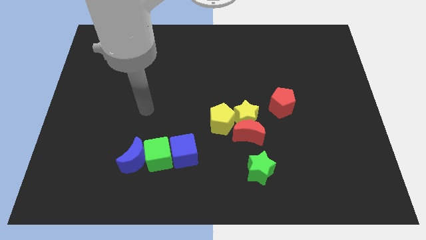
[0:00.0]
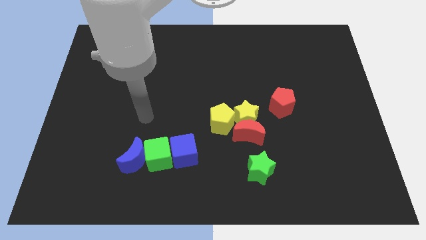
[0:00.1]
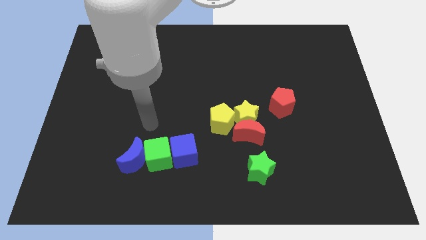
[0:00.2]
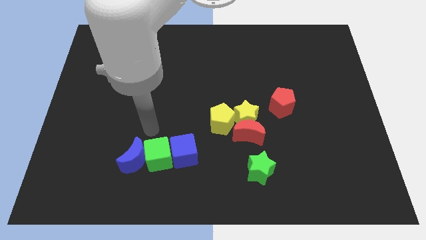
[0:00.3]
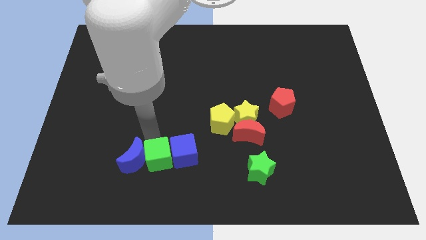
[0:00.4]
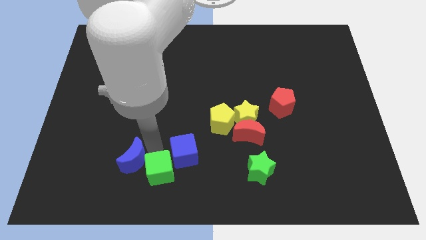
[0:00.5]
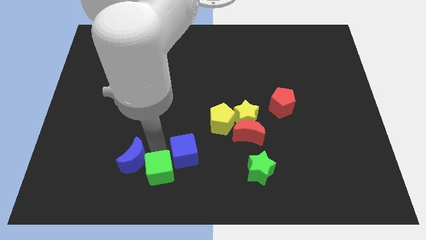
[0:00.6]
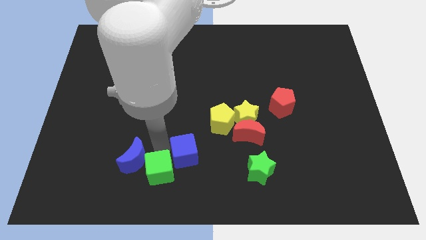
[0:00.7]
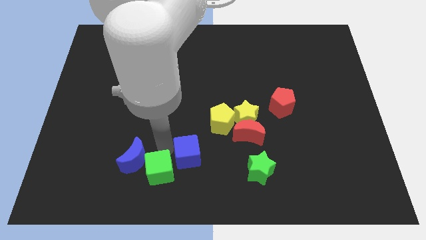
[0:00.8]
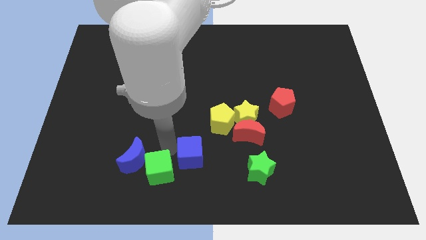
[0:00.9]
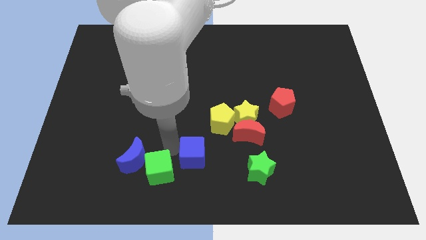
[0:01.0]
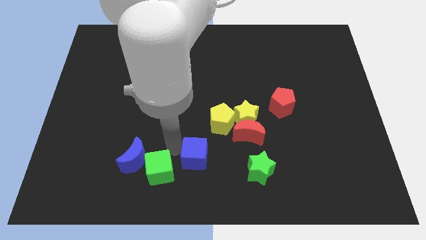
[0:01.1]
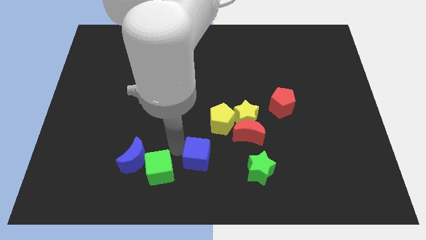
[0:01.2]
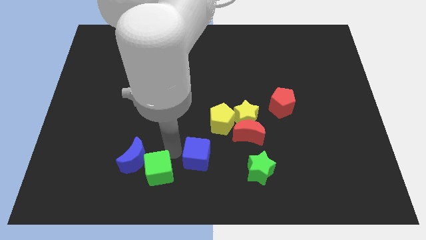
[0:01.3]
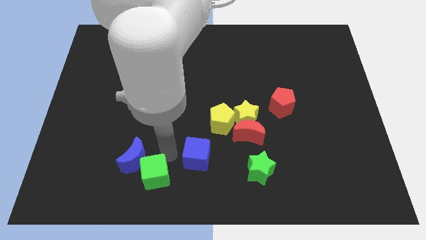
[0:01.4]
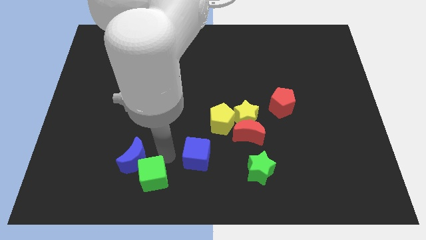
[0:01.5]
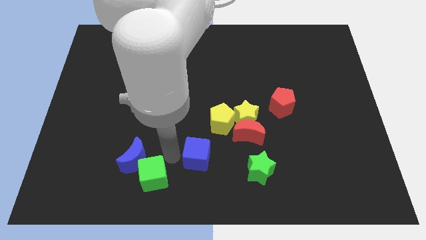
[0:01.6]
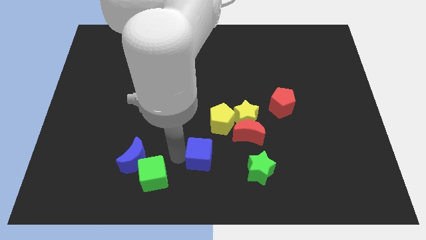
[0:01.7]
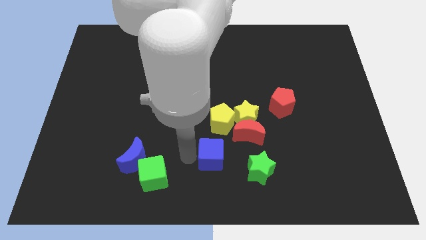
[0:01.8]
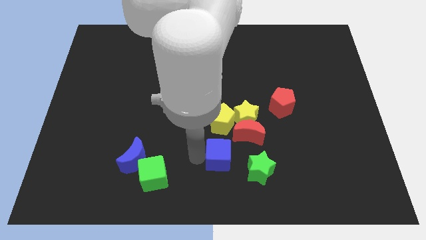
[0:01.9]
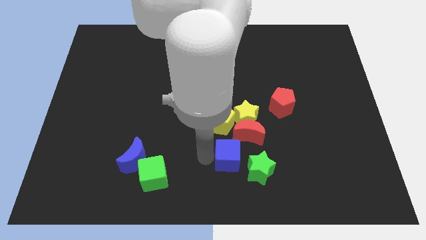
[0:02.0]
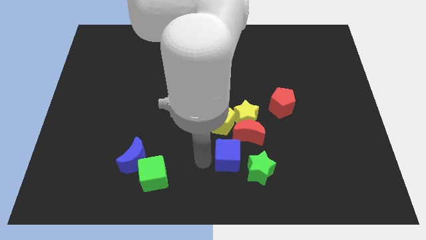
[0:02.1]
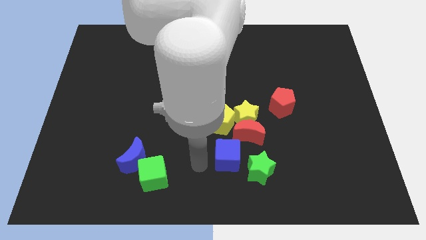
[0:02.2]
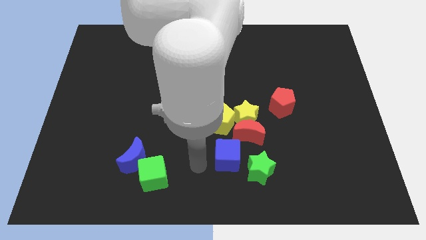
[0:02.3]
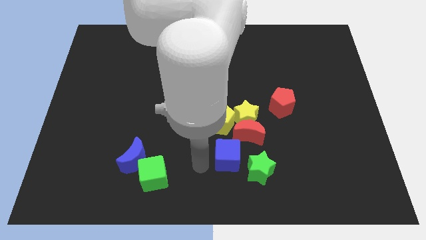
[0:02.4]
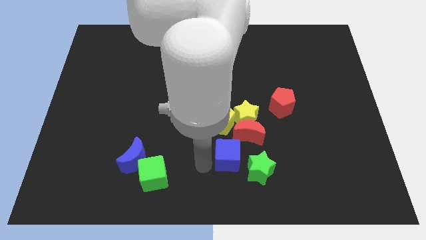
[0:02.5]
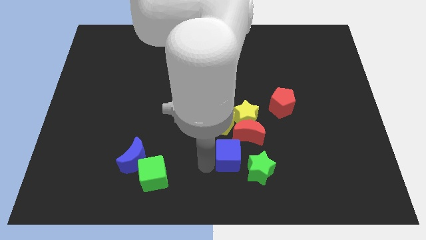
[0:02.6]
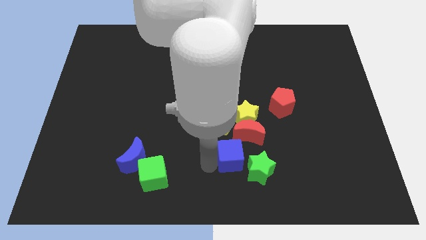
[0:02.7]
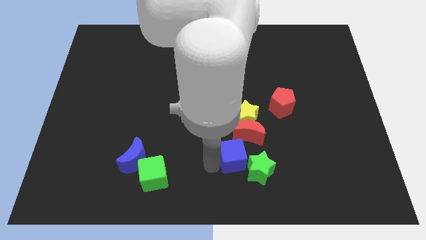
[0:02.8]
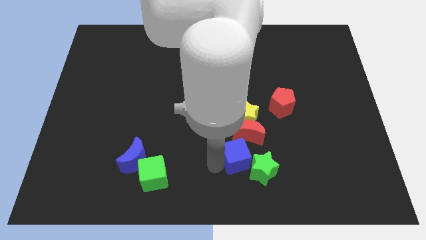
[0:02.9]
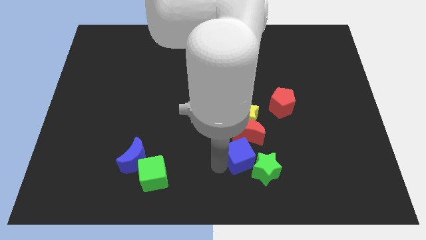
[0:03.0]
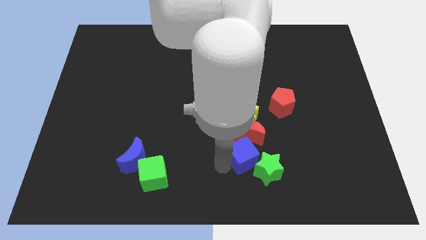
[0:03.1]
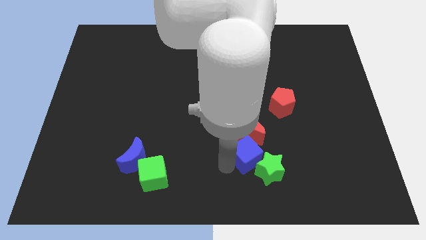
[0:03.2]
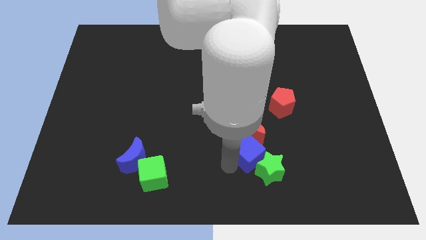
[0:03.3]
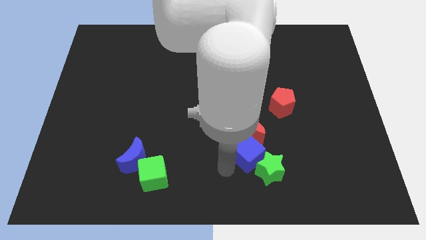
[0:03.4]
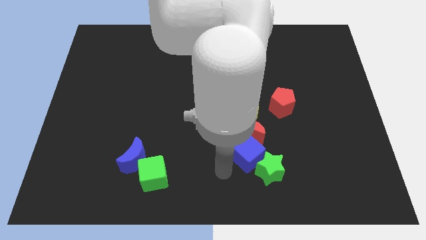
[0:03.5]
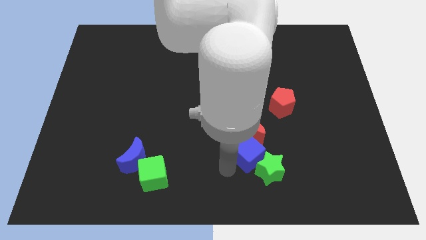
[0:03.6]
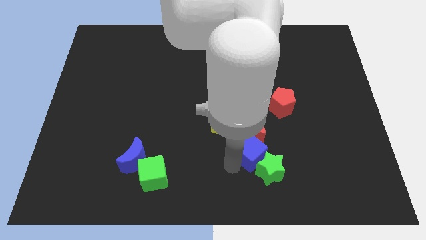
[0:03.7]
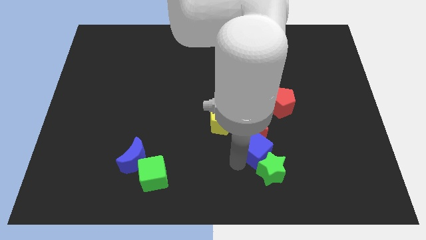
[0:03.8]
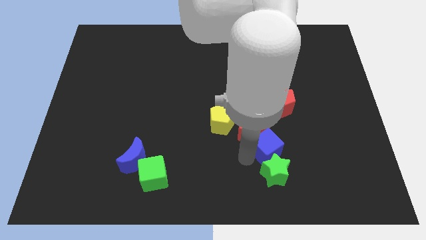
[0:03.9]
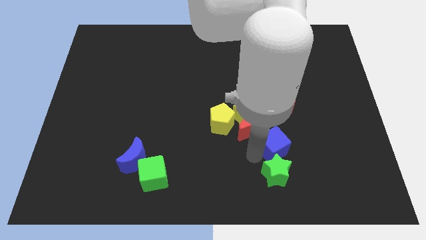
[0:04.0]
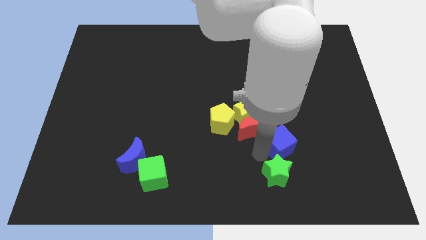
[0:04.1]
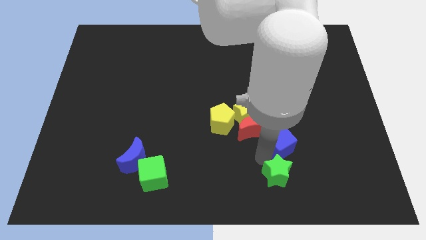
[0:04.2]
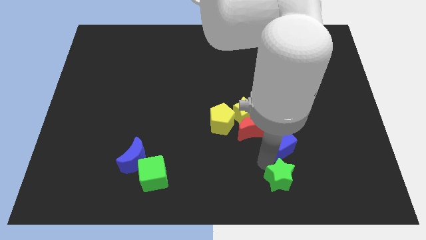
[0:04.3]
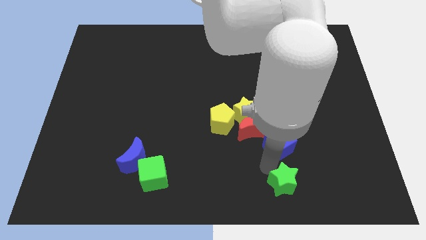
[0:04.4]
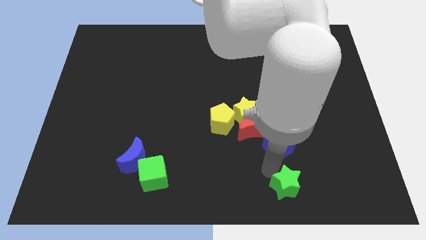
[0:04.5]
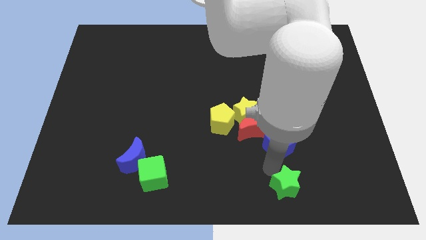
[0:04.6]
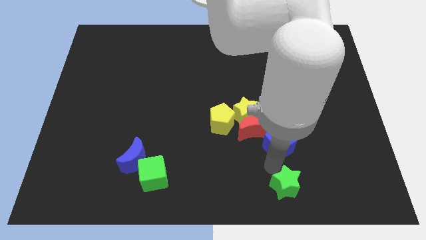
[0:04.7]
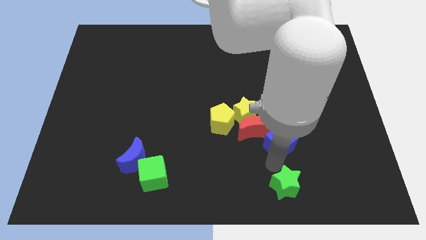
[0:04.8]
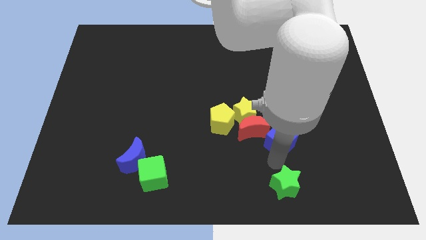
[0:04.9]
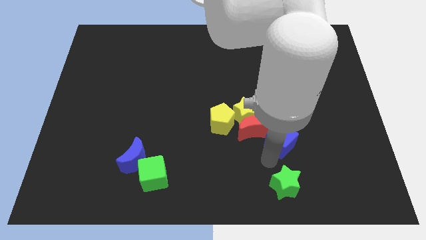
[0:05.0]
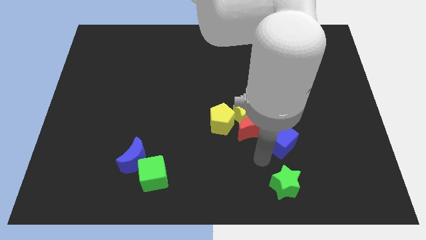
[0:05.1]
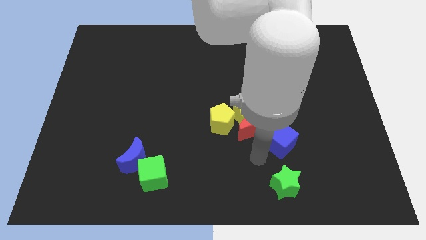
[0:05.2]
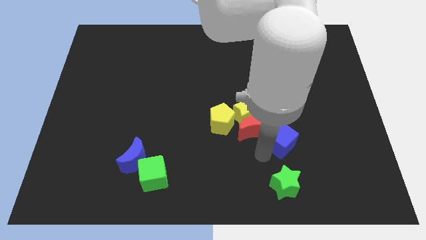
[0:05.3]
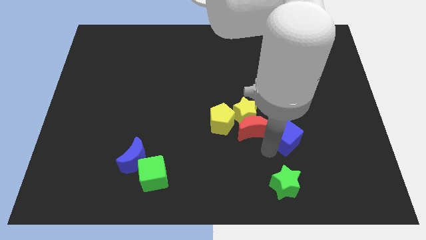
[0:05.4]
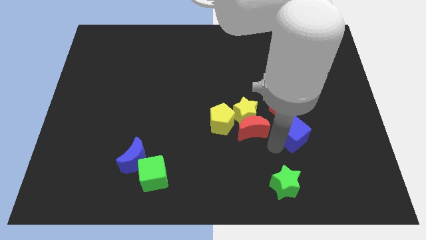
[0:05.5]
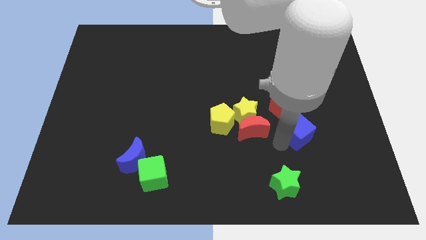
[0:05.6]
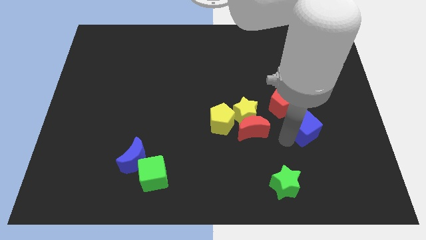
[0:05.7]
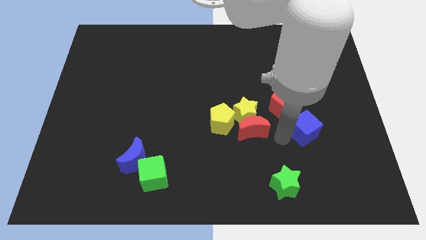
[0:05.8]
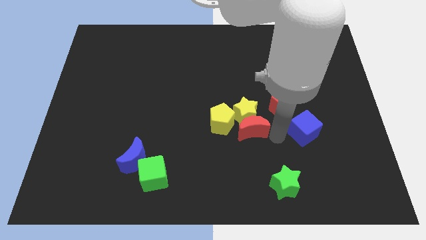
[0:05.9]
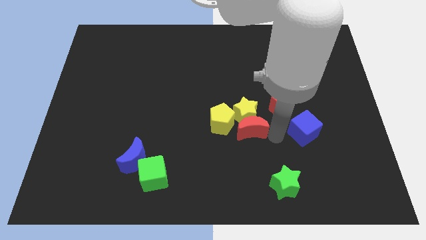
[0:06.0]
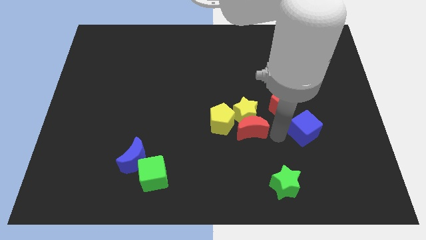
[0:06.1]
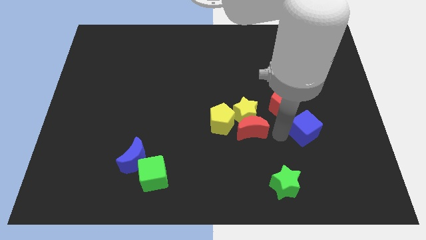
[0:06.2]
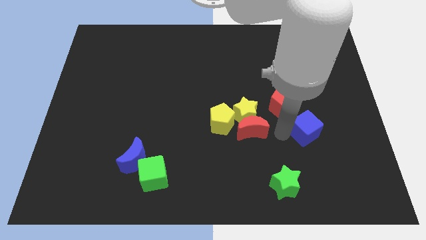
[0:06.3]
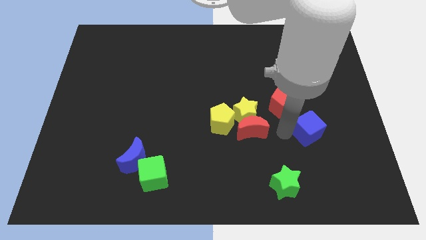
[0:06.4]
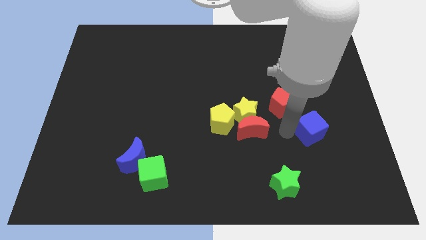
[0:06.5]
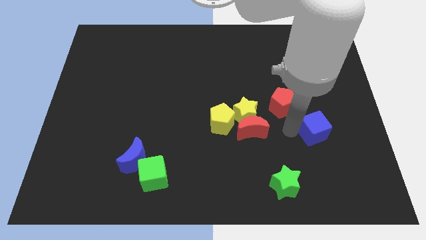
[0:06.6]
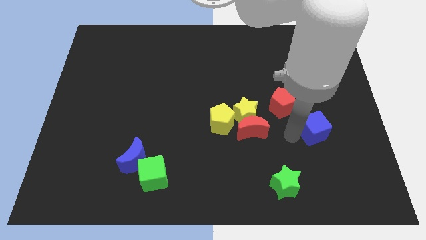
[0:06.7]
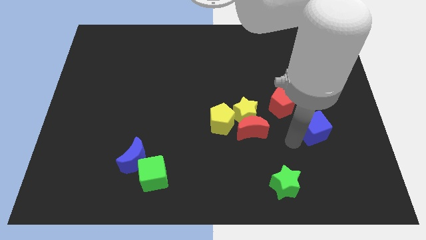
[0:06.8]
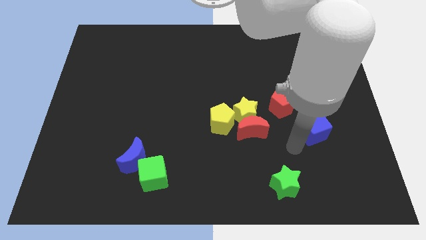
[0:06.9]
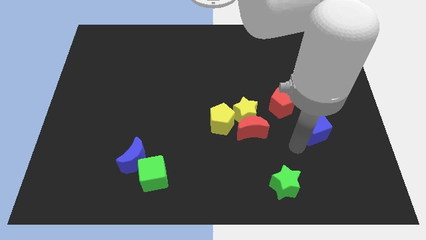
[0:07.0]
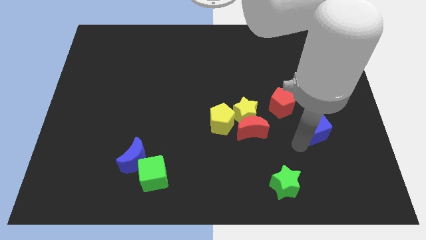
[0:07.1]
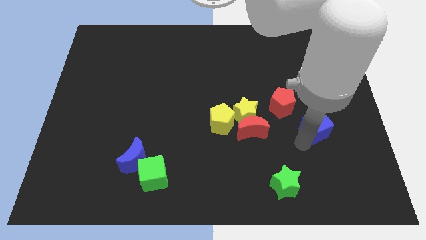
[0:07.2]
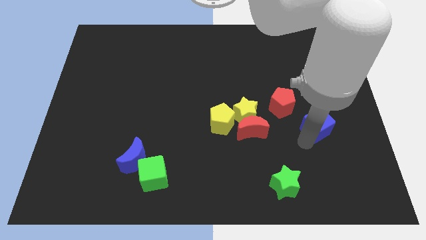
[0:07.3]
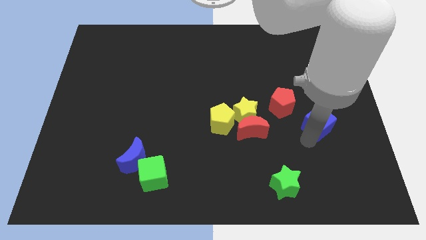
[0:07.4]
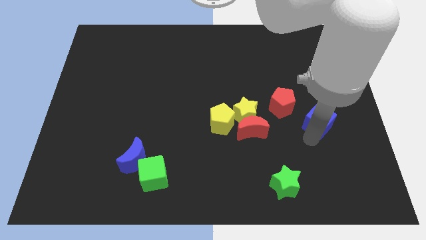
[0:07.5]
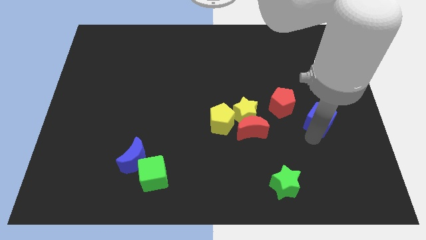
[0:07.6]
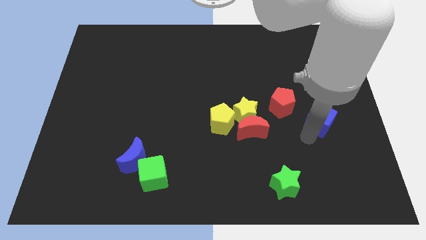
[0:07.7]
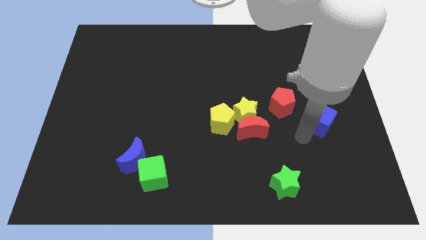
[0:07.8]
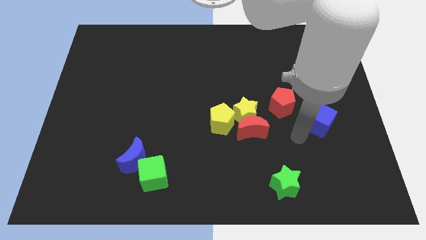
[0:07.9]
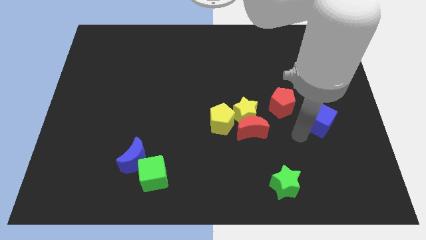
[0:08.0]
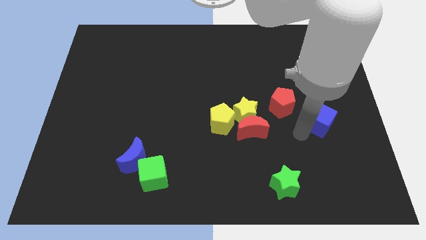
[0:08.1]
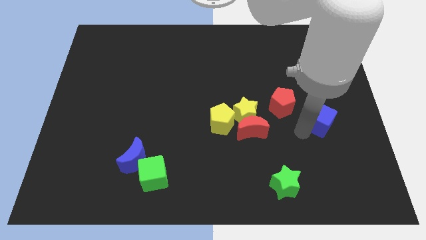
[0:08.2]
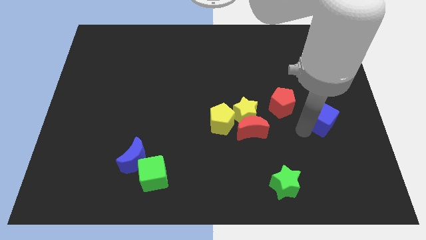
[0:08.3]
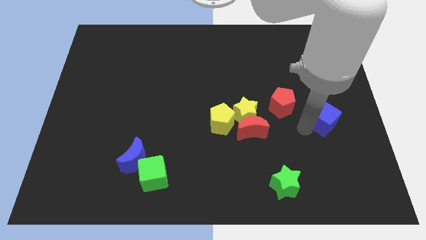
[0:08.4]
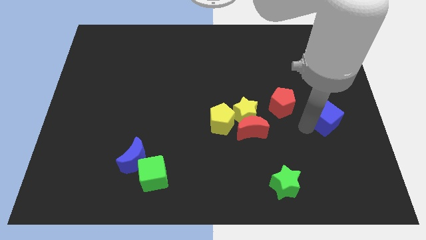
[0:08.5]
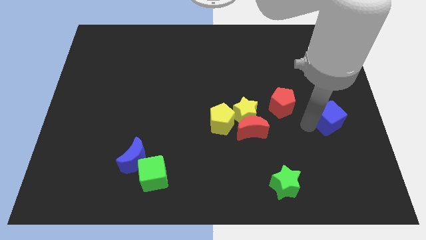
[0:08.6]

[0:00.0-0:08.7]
put the blue cube to the center right
